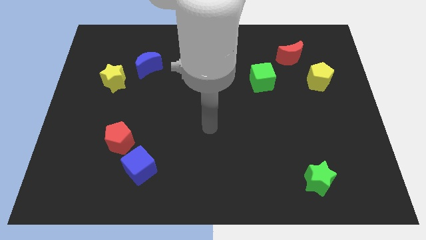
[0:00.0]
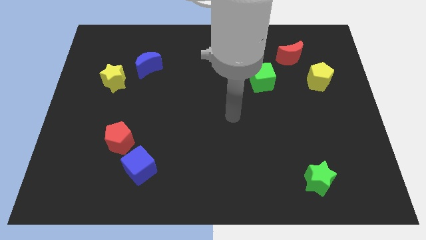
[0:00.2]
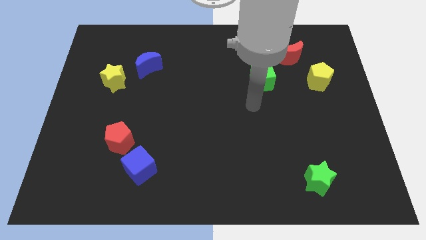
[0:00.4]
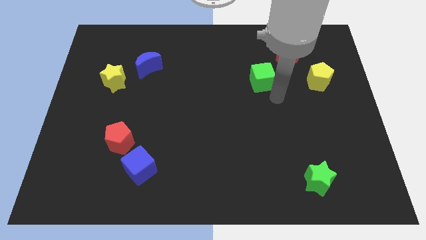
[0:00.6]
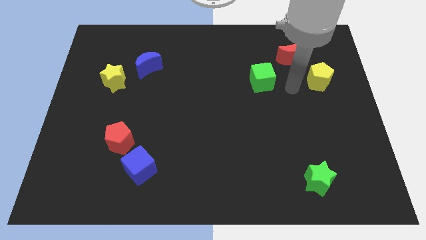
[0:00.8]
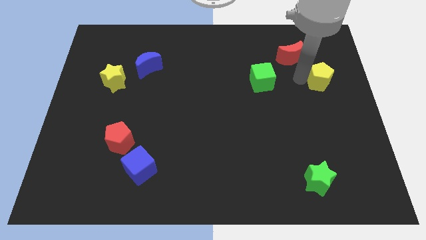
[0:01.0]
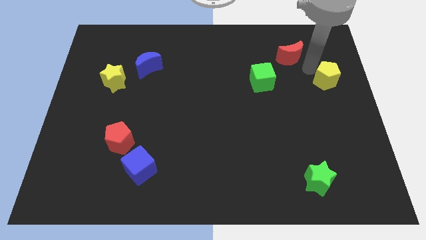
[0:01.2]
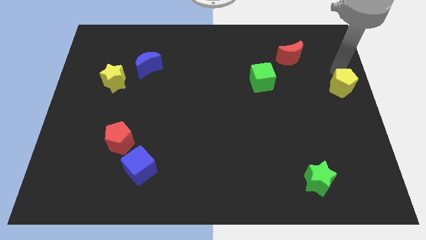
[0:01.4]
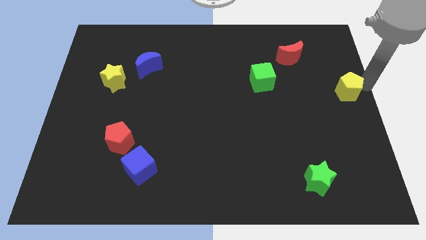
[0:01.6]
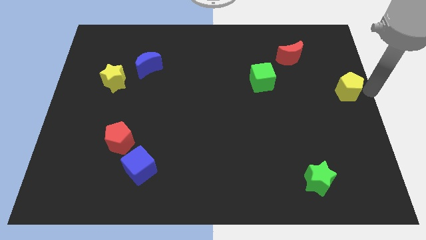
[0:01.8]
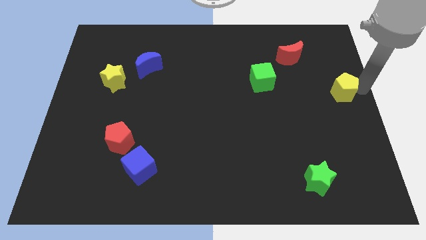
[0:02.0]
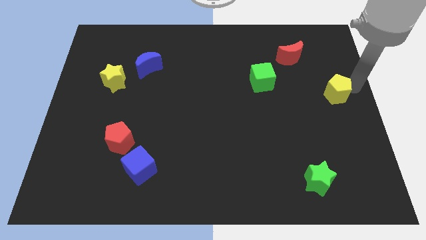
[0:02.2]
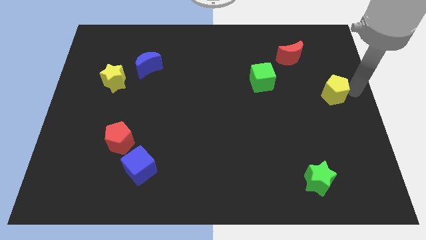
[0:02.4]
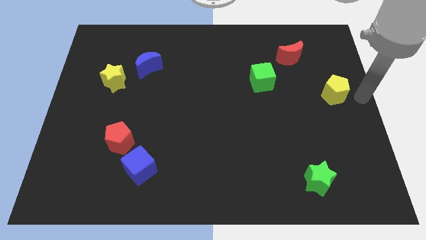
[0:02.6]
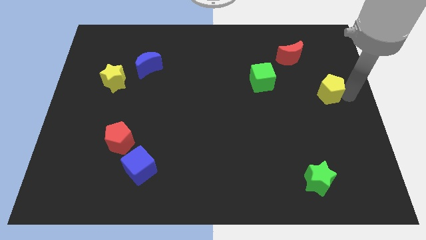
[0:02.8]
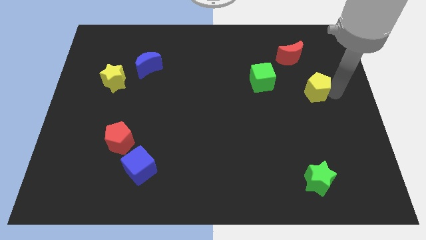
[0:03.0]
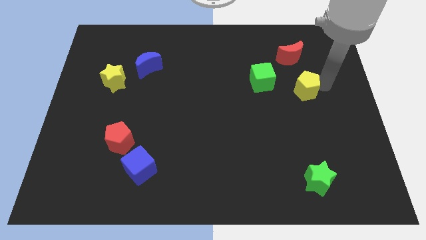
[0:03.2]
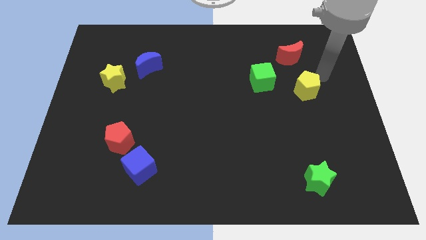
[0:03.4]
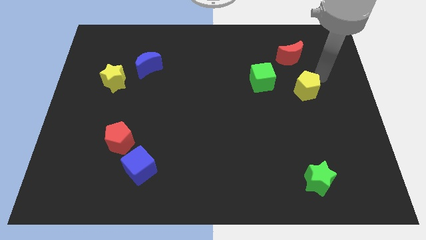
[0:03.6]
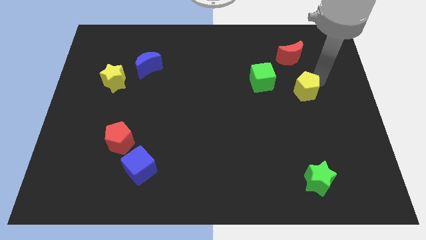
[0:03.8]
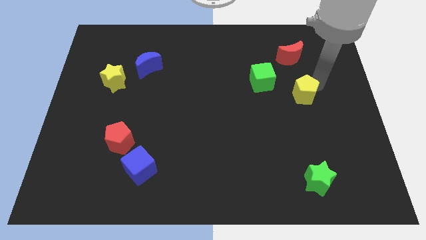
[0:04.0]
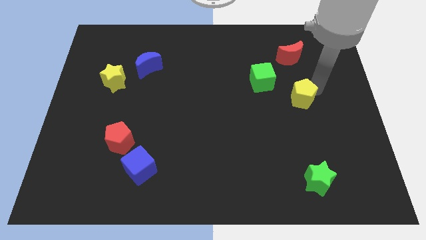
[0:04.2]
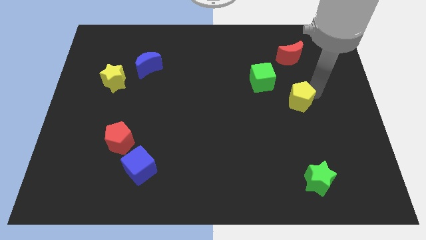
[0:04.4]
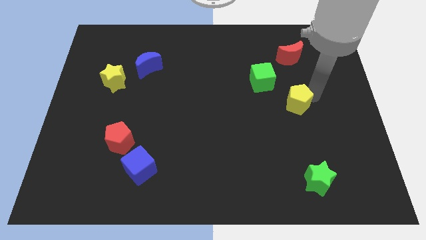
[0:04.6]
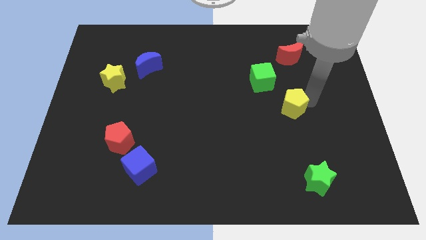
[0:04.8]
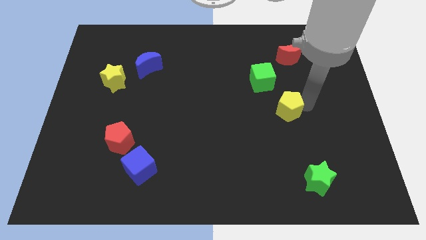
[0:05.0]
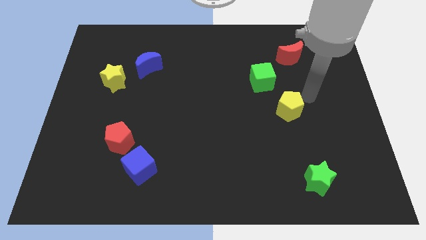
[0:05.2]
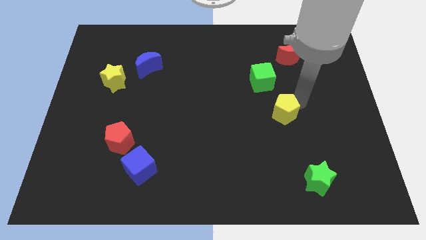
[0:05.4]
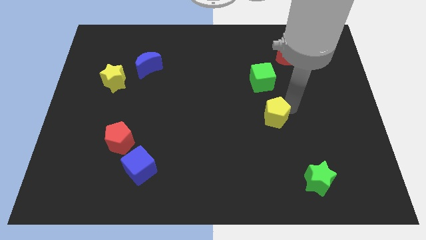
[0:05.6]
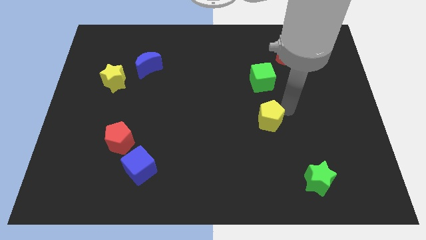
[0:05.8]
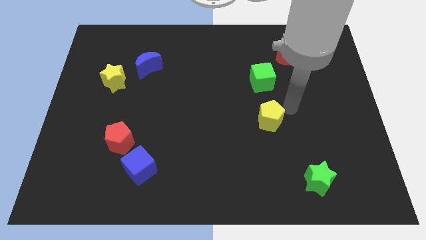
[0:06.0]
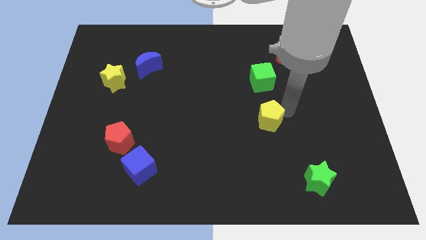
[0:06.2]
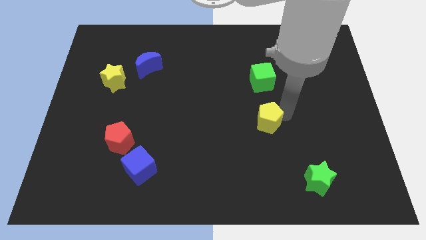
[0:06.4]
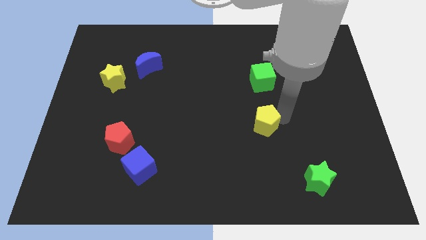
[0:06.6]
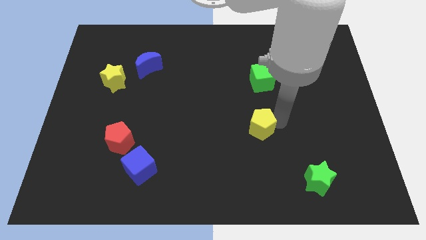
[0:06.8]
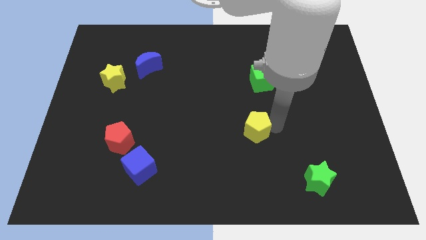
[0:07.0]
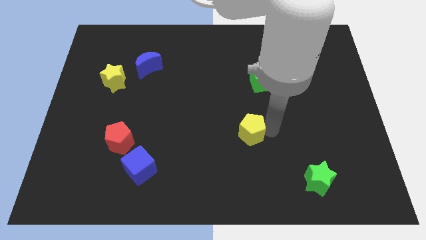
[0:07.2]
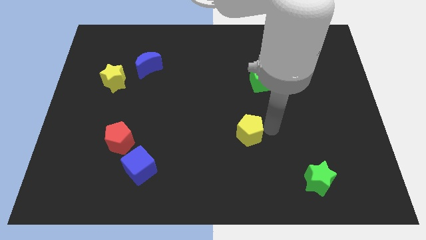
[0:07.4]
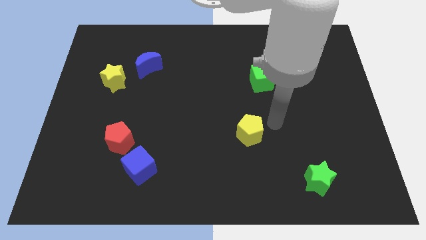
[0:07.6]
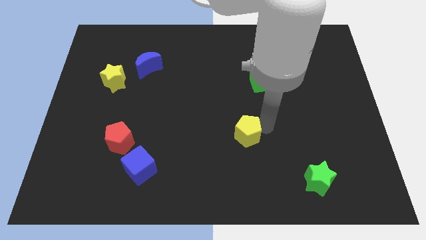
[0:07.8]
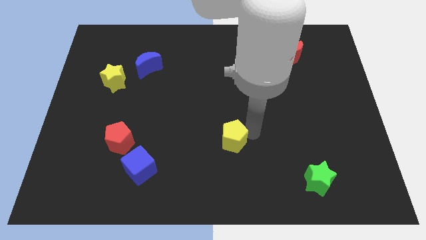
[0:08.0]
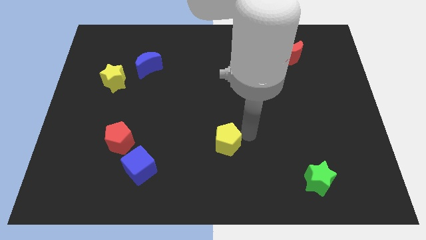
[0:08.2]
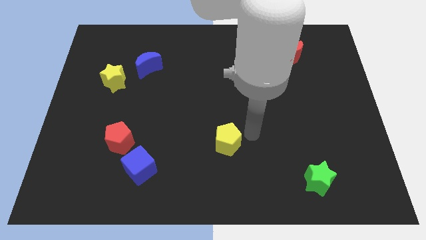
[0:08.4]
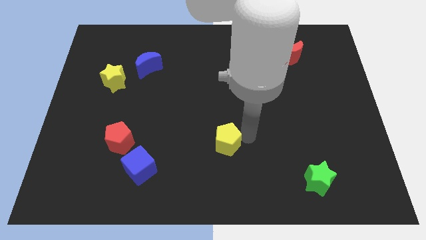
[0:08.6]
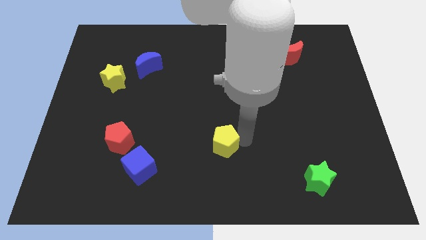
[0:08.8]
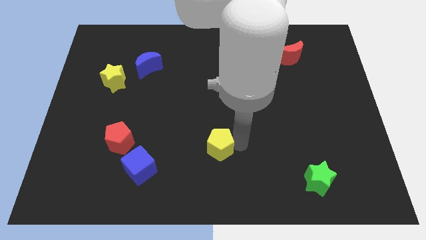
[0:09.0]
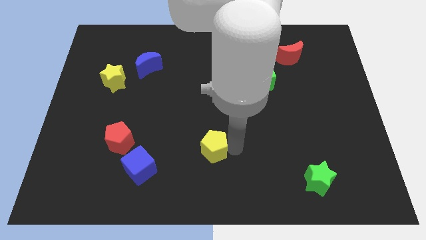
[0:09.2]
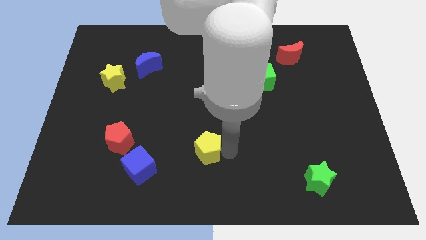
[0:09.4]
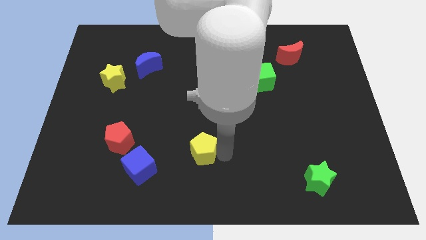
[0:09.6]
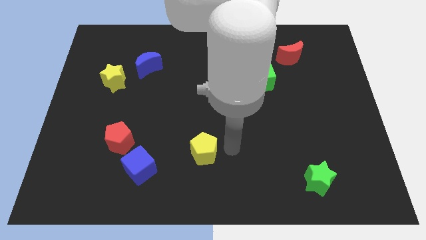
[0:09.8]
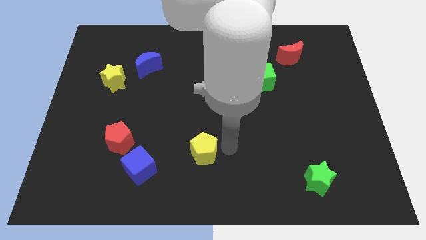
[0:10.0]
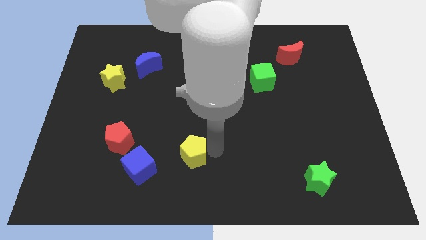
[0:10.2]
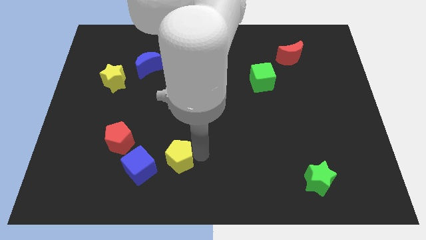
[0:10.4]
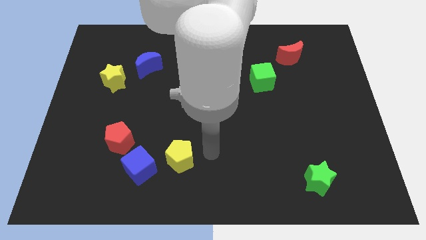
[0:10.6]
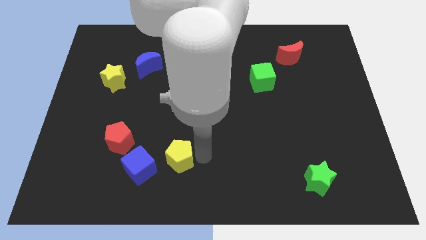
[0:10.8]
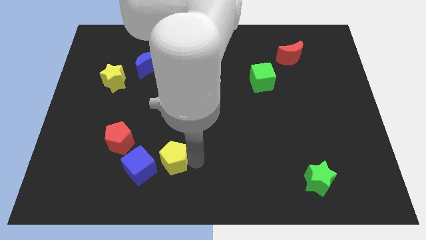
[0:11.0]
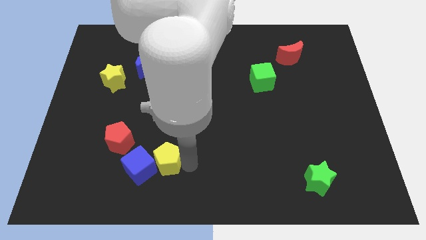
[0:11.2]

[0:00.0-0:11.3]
put the yellow pentagon to the blue cube

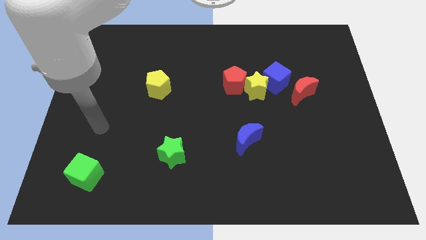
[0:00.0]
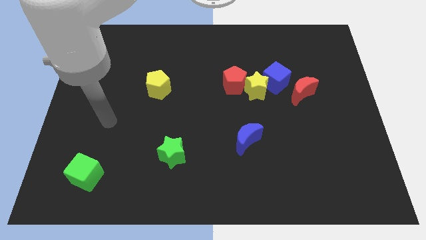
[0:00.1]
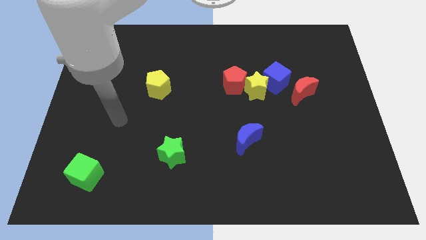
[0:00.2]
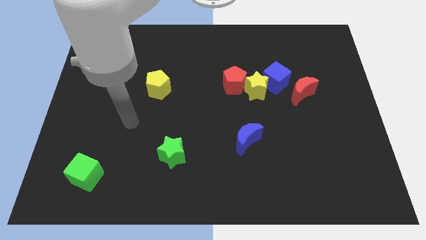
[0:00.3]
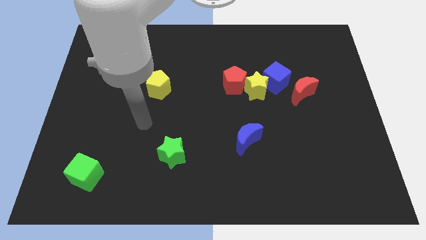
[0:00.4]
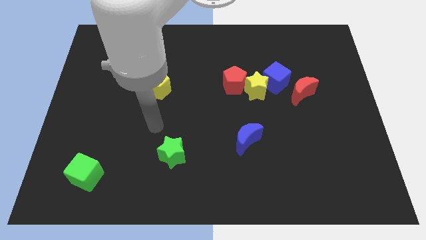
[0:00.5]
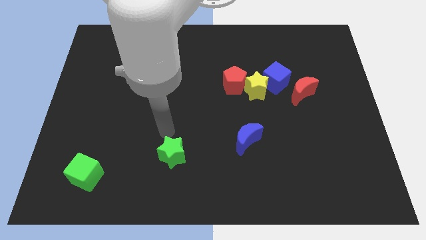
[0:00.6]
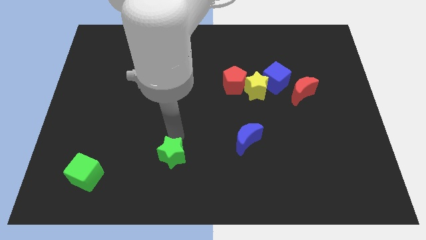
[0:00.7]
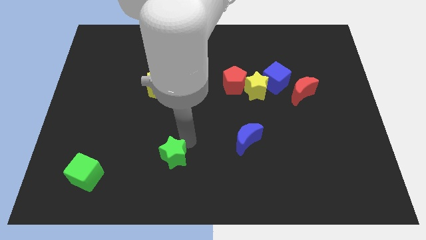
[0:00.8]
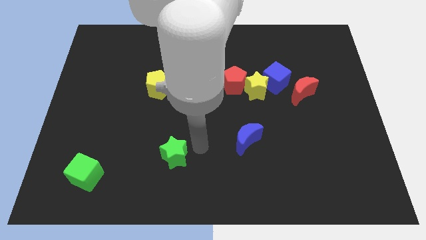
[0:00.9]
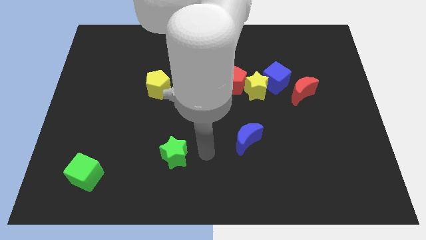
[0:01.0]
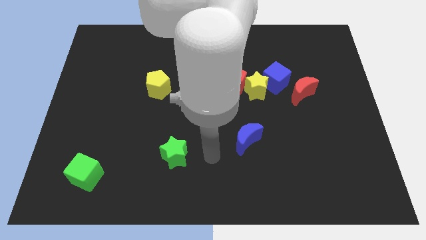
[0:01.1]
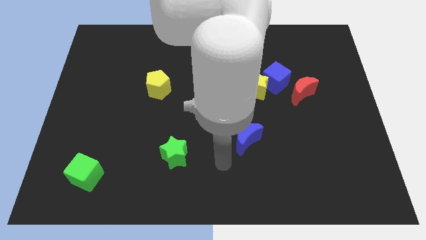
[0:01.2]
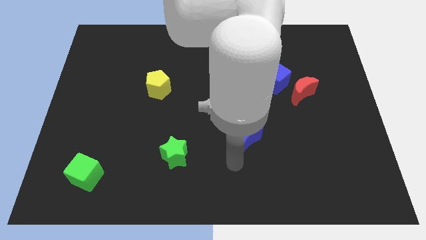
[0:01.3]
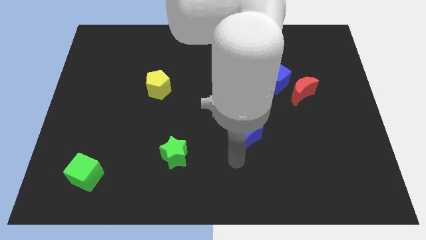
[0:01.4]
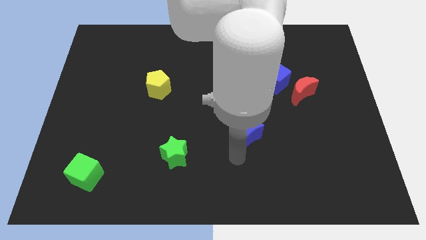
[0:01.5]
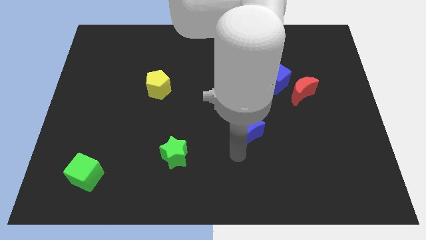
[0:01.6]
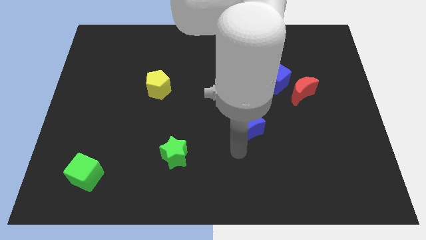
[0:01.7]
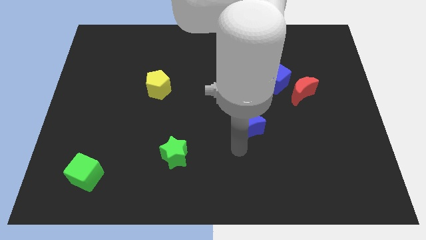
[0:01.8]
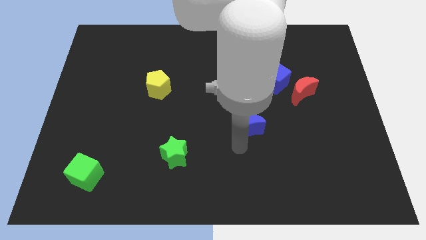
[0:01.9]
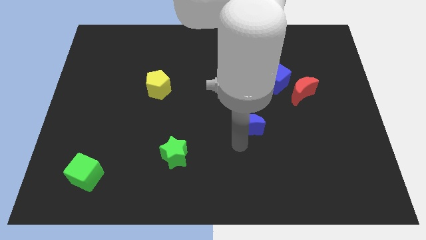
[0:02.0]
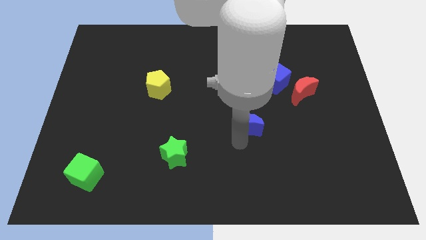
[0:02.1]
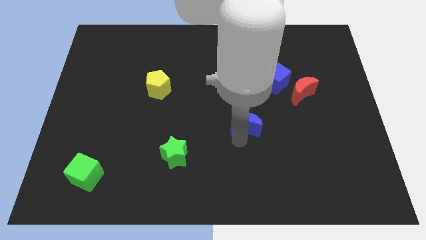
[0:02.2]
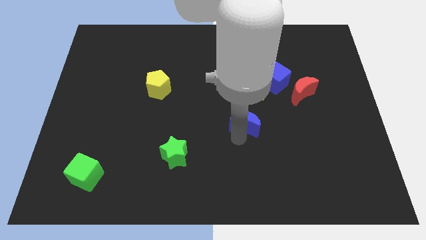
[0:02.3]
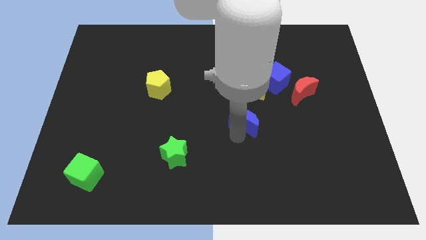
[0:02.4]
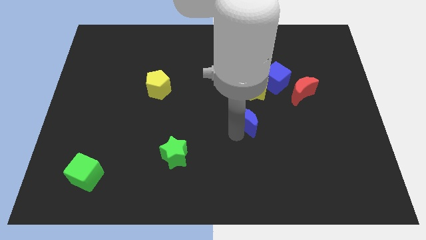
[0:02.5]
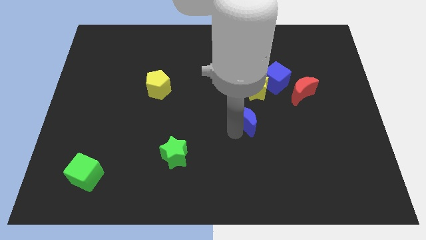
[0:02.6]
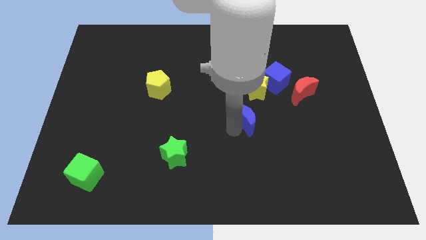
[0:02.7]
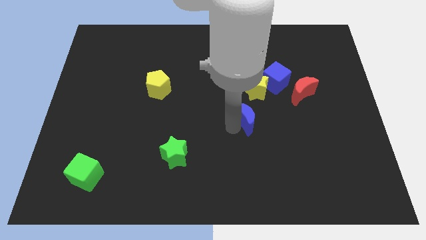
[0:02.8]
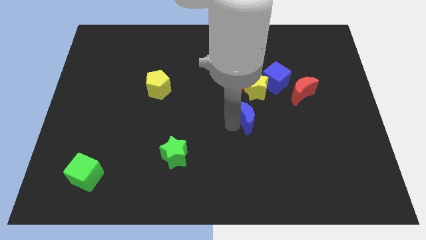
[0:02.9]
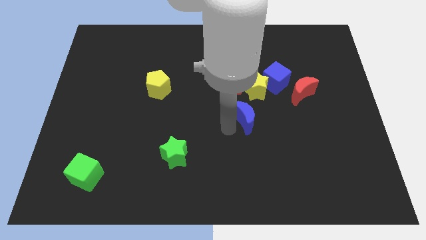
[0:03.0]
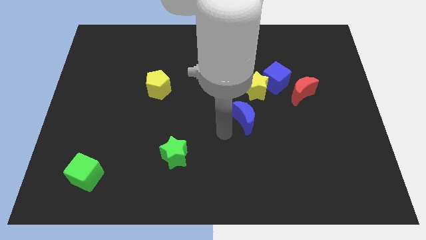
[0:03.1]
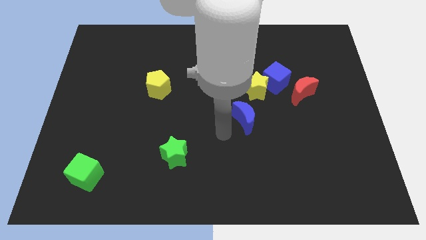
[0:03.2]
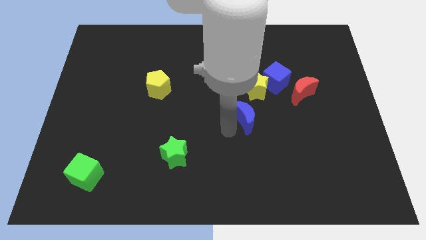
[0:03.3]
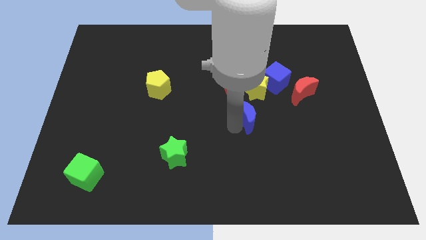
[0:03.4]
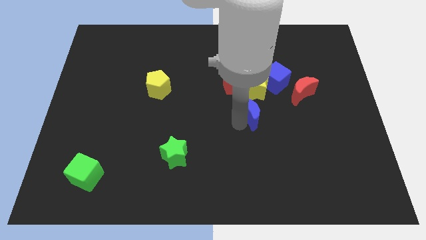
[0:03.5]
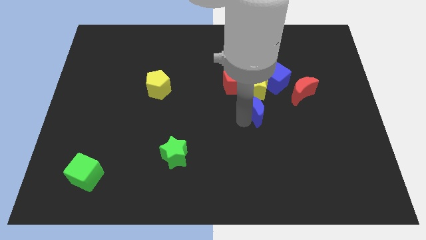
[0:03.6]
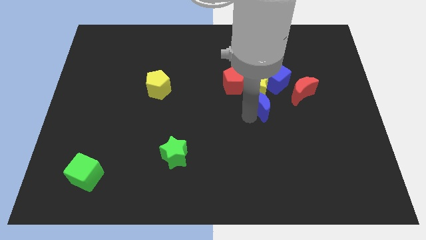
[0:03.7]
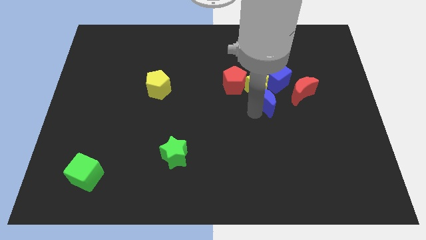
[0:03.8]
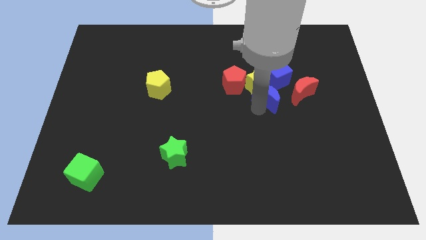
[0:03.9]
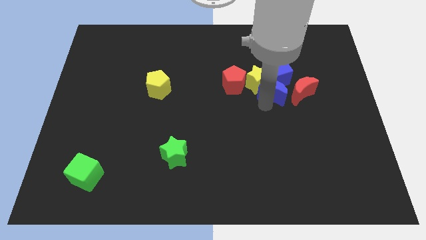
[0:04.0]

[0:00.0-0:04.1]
push the blue moon towards the blue cube
